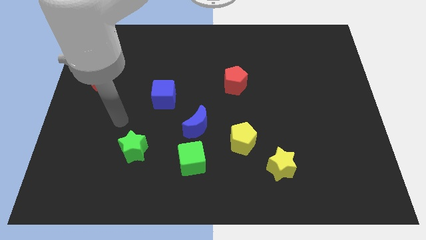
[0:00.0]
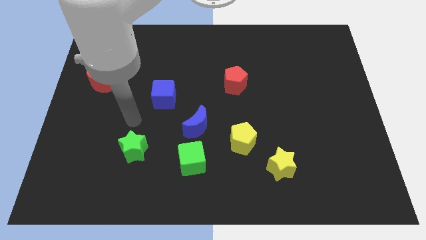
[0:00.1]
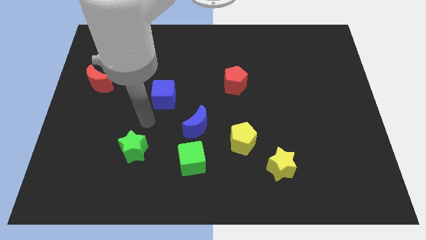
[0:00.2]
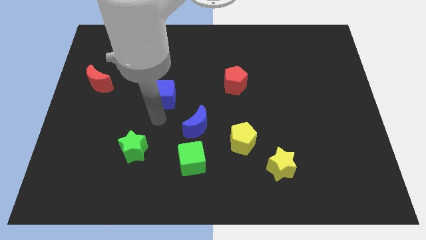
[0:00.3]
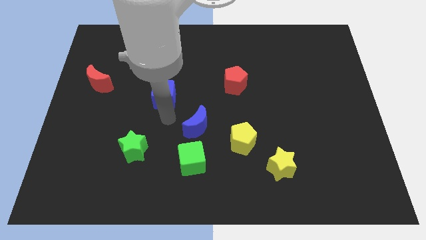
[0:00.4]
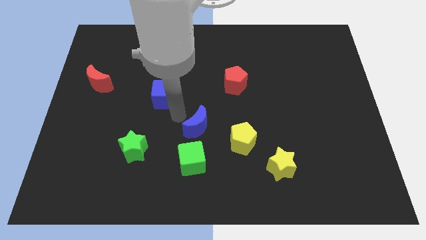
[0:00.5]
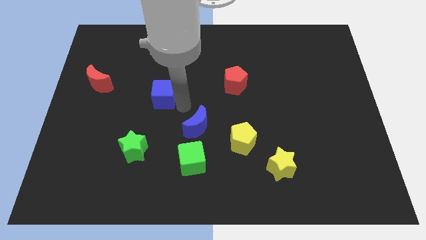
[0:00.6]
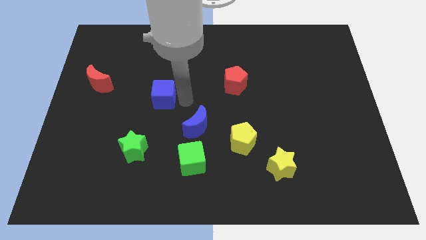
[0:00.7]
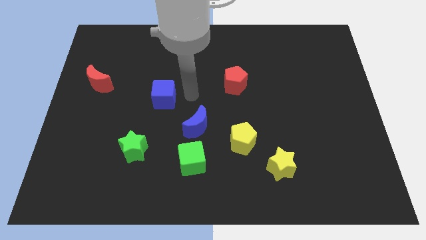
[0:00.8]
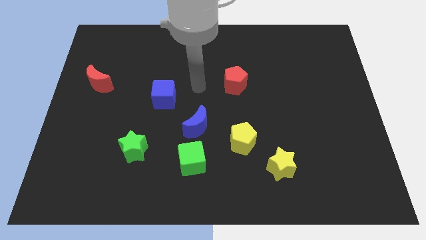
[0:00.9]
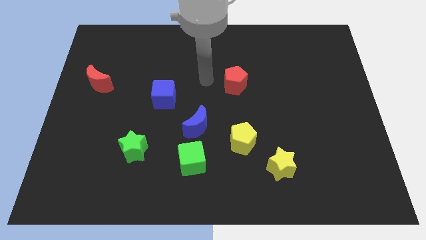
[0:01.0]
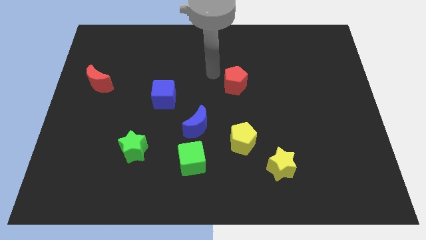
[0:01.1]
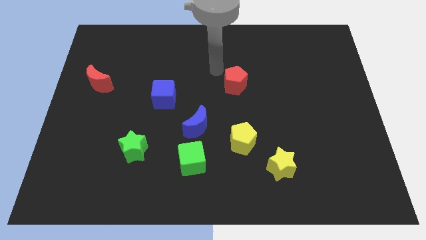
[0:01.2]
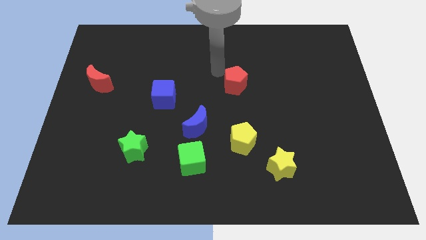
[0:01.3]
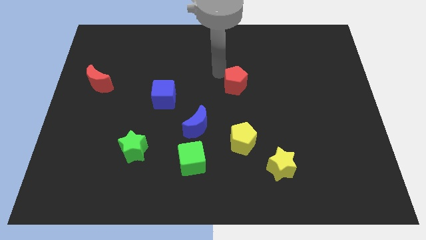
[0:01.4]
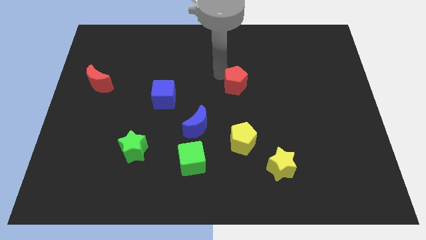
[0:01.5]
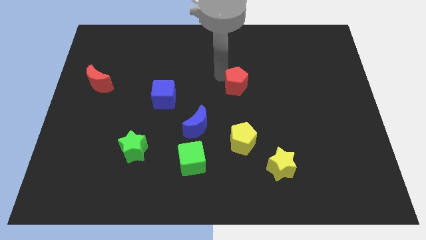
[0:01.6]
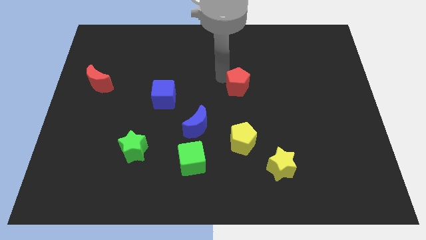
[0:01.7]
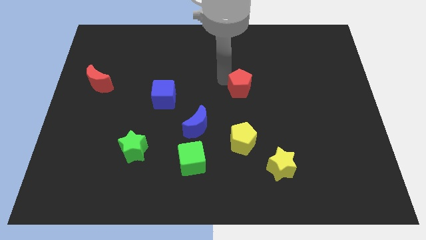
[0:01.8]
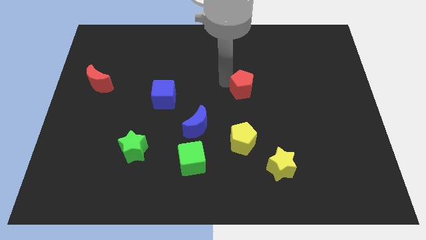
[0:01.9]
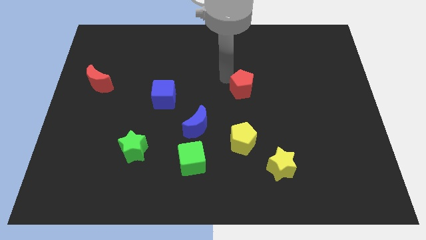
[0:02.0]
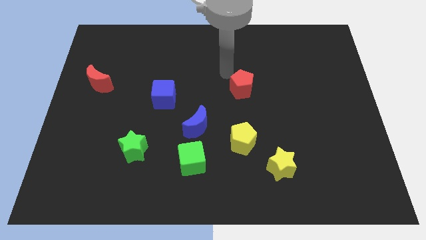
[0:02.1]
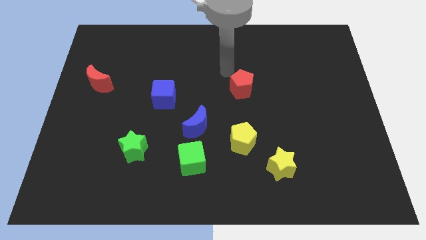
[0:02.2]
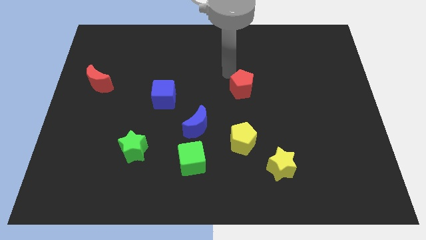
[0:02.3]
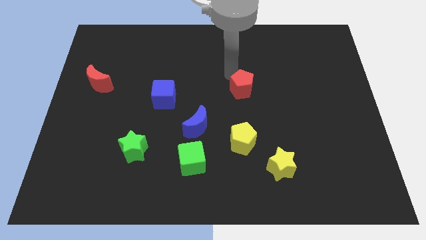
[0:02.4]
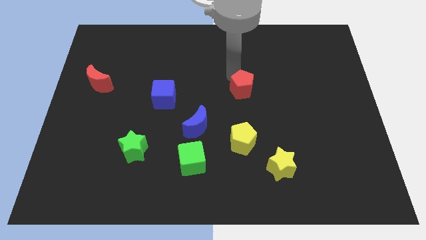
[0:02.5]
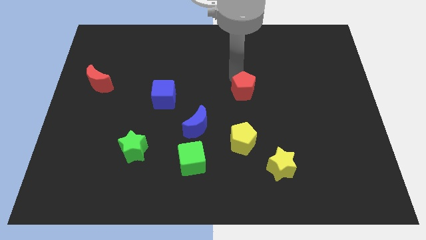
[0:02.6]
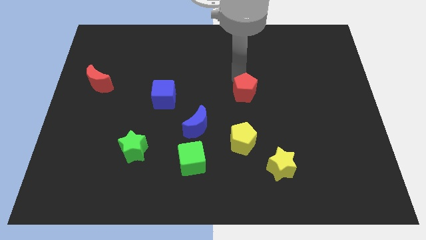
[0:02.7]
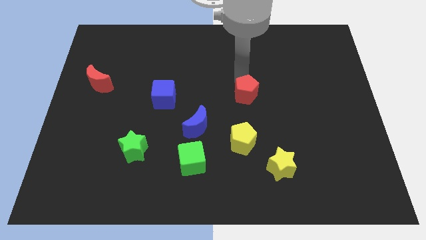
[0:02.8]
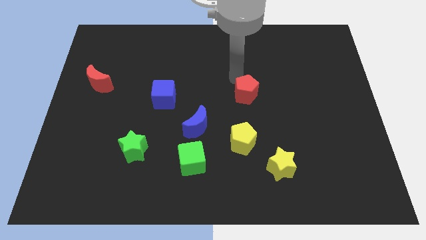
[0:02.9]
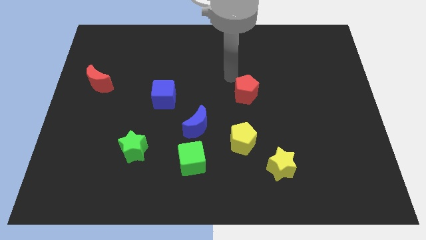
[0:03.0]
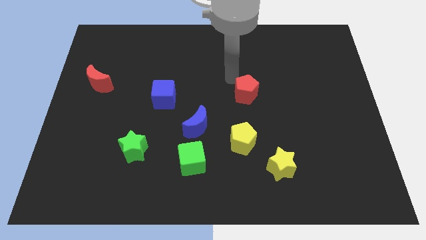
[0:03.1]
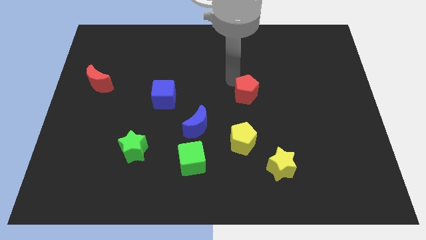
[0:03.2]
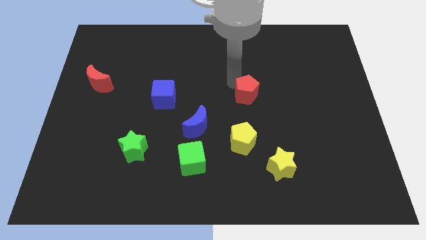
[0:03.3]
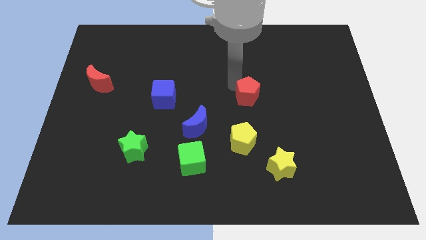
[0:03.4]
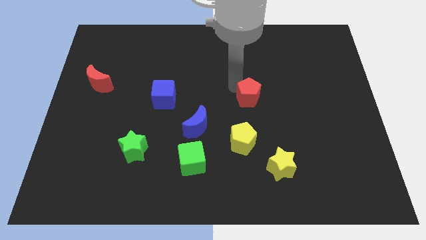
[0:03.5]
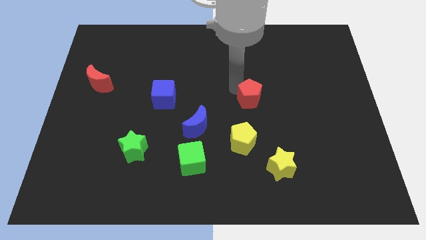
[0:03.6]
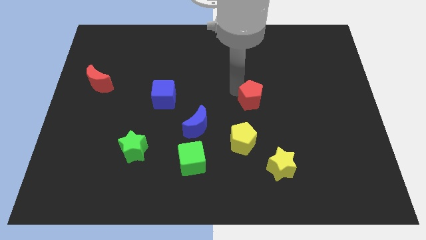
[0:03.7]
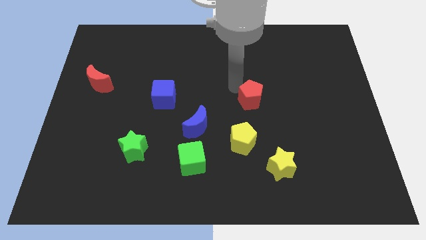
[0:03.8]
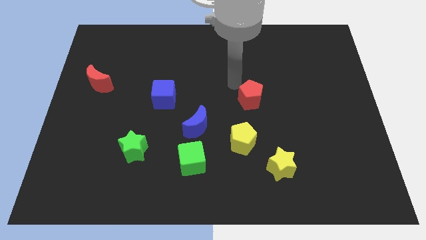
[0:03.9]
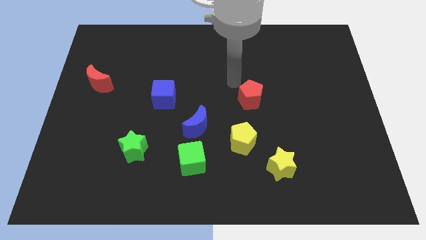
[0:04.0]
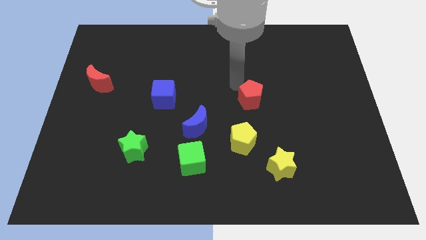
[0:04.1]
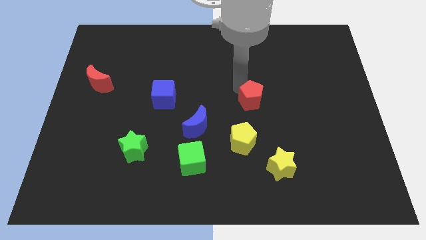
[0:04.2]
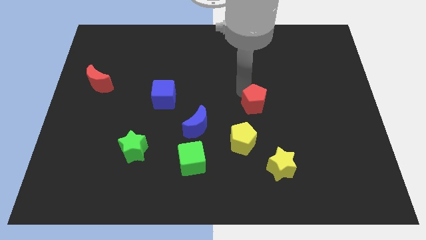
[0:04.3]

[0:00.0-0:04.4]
slide the red pentagon a little bit down and to the right

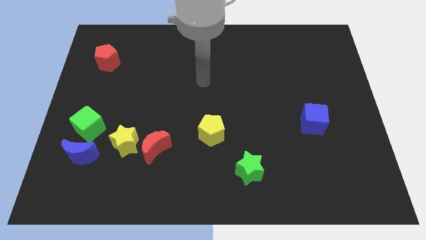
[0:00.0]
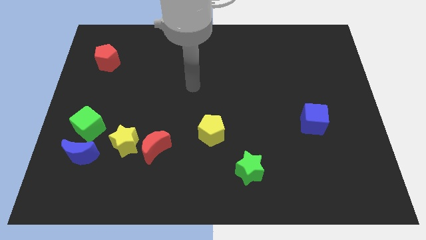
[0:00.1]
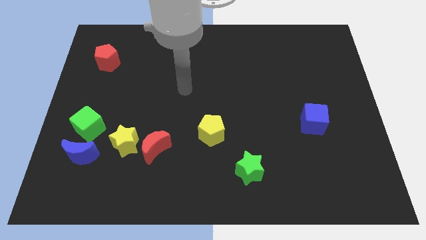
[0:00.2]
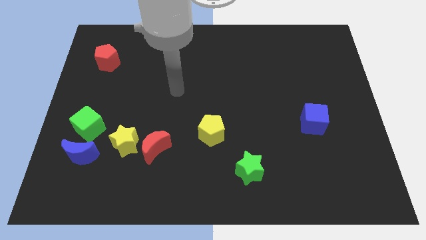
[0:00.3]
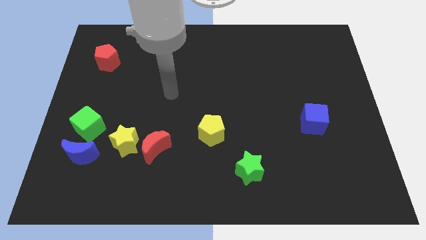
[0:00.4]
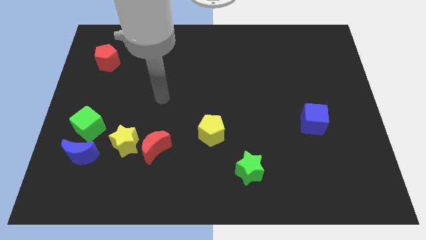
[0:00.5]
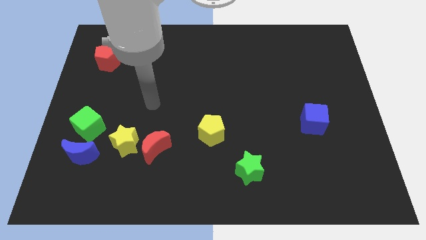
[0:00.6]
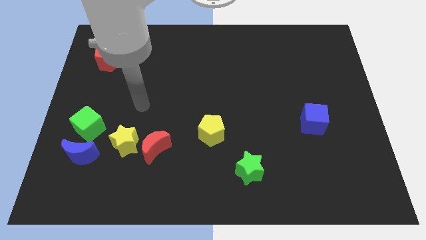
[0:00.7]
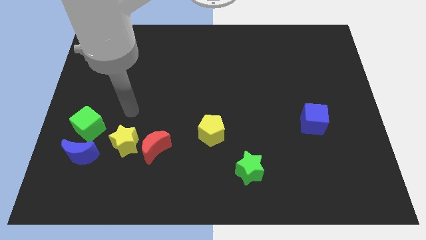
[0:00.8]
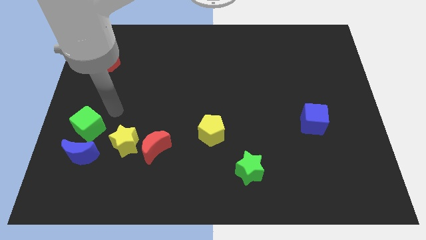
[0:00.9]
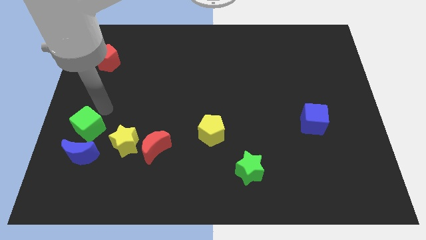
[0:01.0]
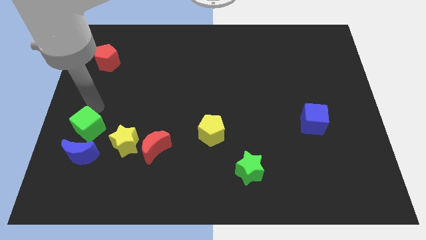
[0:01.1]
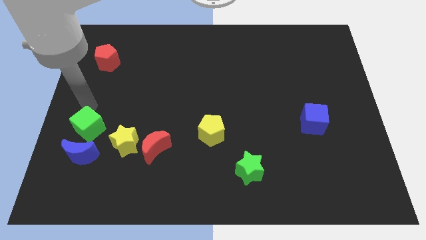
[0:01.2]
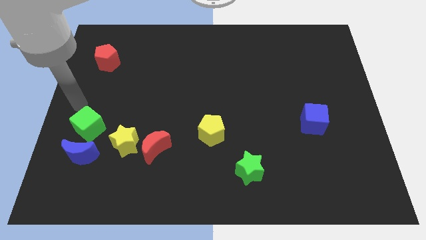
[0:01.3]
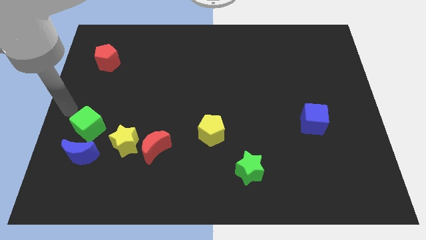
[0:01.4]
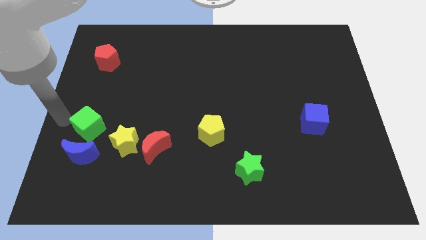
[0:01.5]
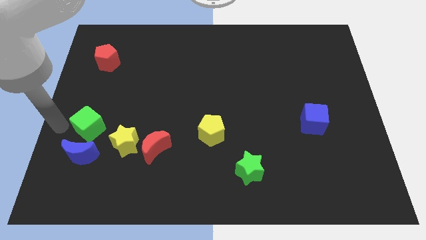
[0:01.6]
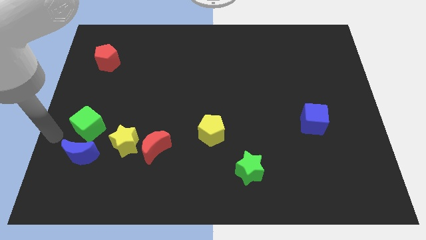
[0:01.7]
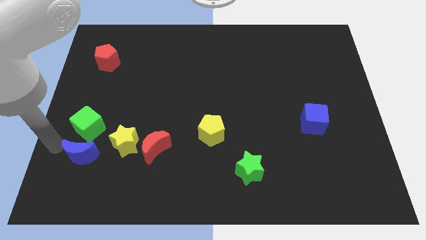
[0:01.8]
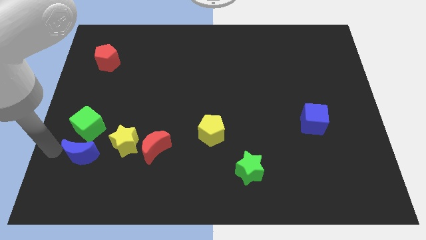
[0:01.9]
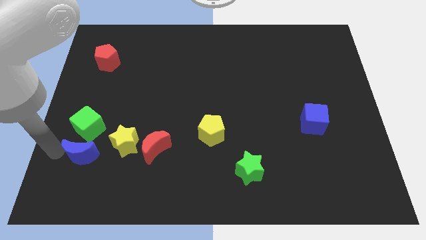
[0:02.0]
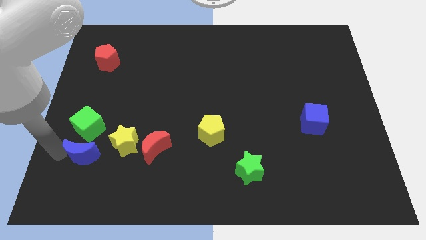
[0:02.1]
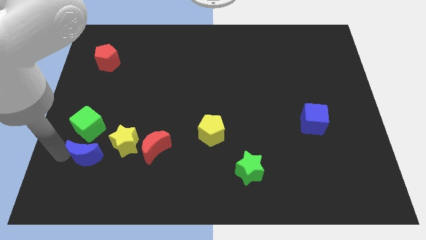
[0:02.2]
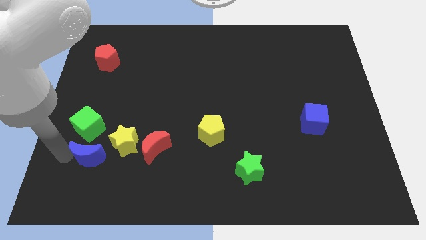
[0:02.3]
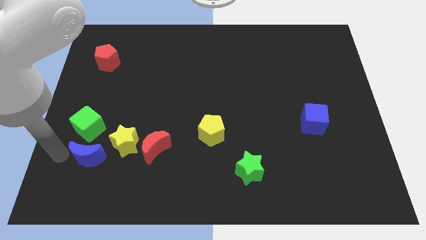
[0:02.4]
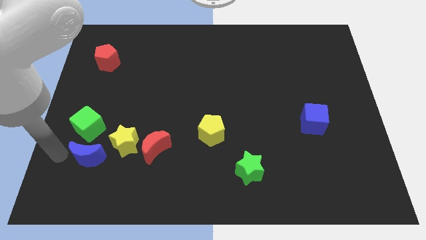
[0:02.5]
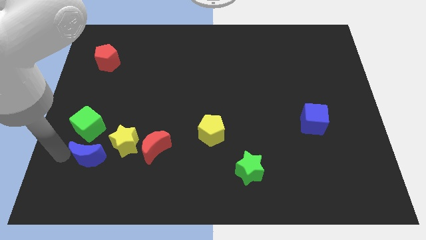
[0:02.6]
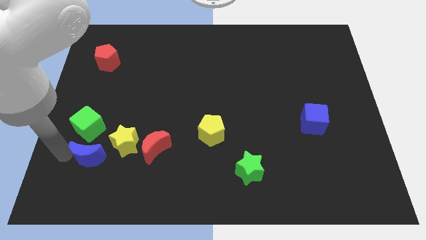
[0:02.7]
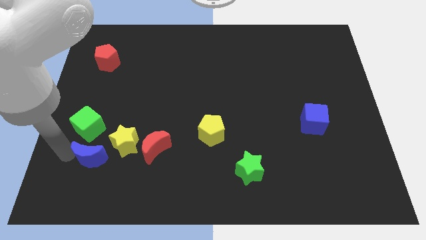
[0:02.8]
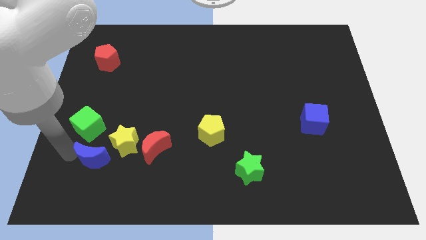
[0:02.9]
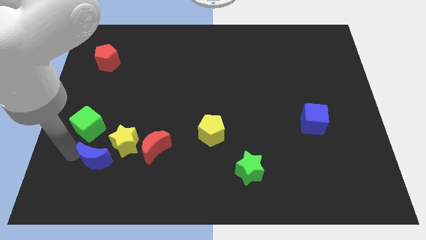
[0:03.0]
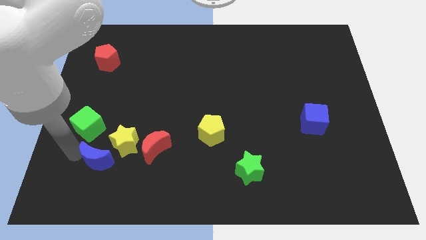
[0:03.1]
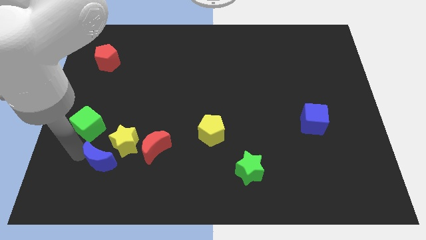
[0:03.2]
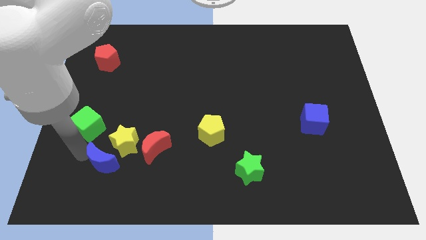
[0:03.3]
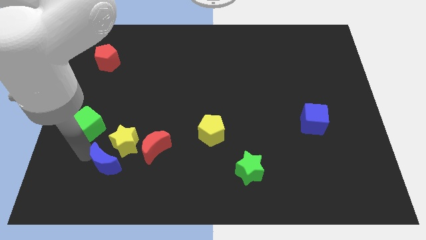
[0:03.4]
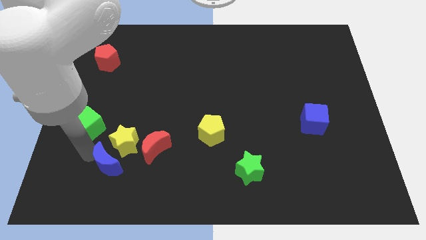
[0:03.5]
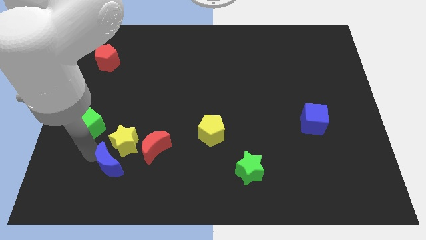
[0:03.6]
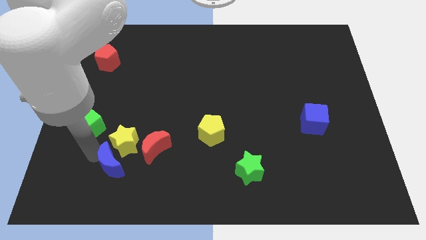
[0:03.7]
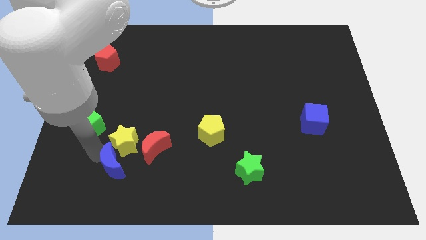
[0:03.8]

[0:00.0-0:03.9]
slightly move the blue moon to the right

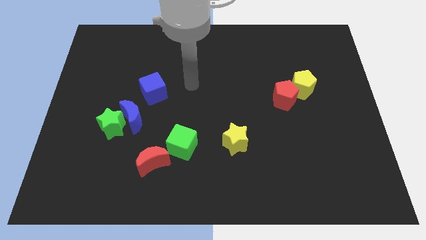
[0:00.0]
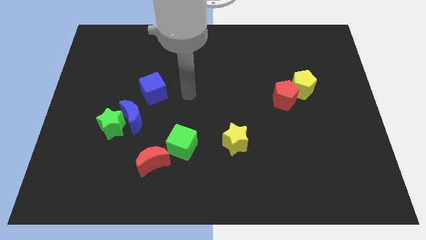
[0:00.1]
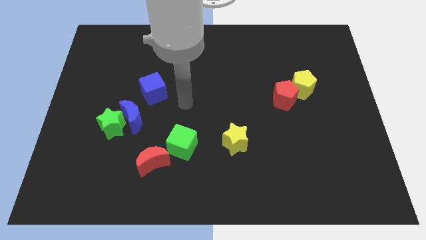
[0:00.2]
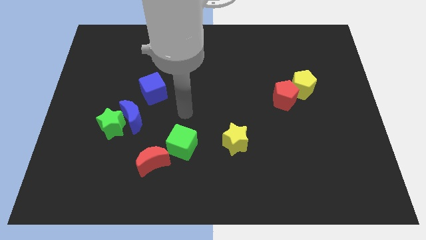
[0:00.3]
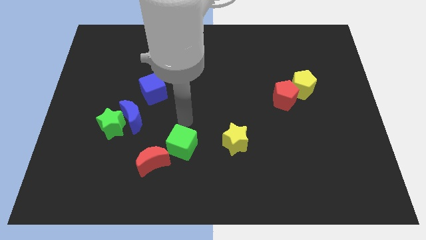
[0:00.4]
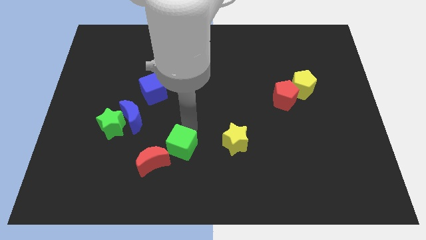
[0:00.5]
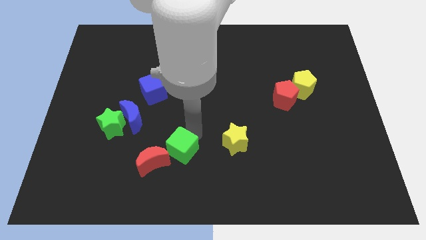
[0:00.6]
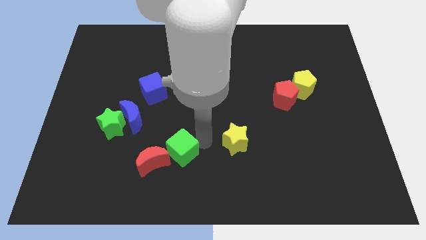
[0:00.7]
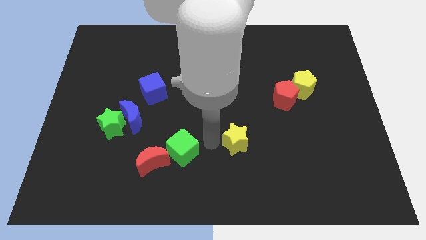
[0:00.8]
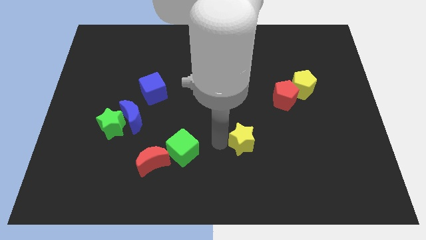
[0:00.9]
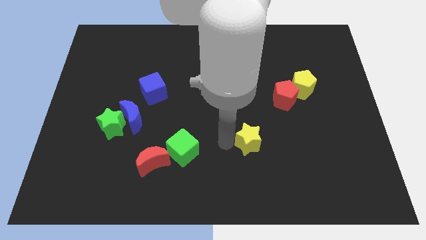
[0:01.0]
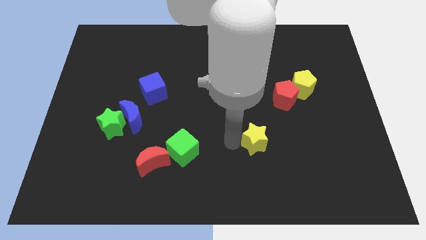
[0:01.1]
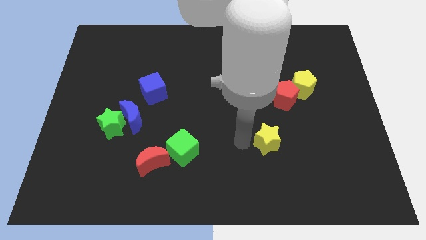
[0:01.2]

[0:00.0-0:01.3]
push the yellow star a little bit to the right
